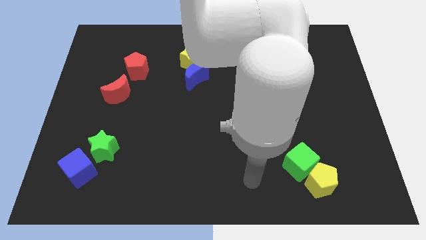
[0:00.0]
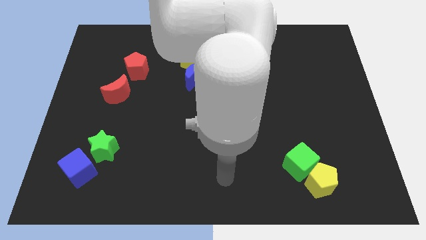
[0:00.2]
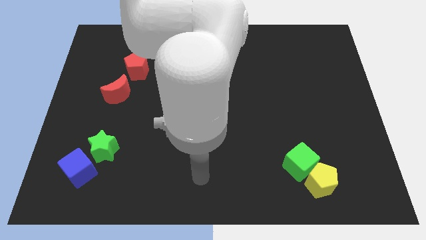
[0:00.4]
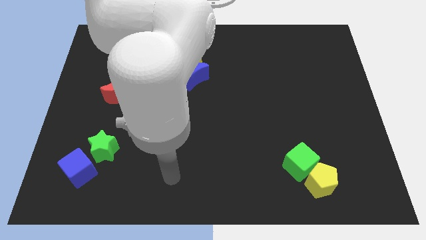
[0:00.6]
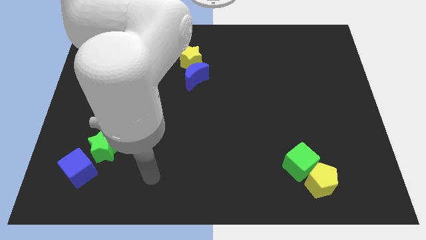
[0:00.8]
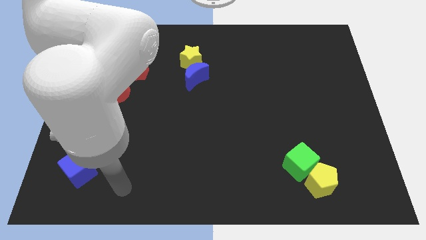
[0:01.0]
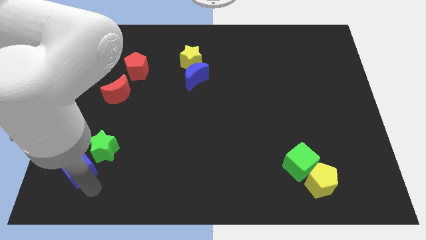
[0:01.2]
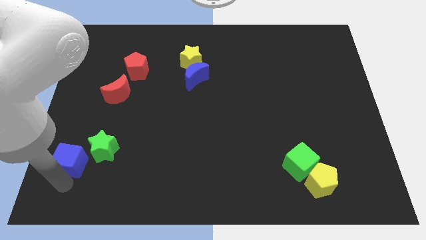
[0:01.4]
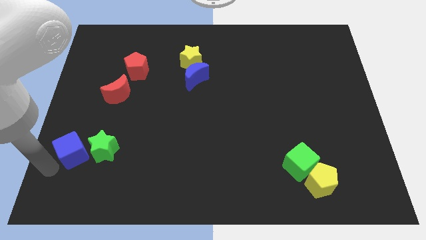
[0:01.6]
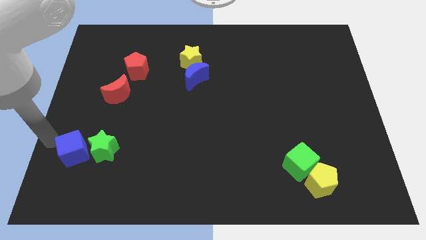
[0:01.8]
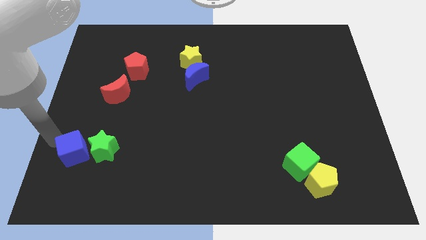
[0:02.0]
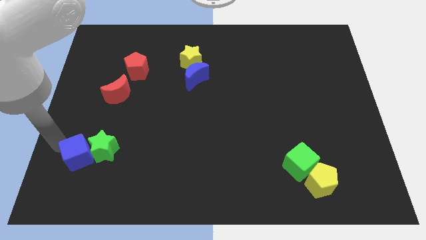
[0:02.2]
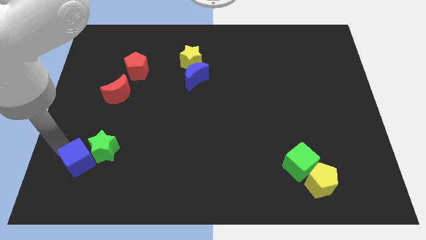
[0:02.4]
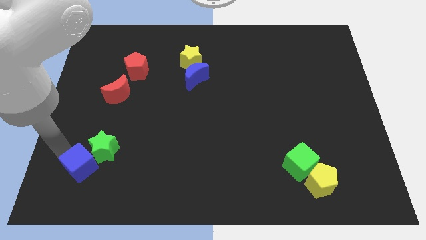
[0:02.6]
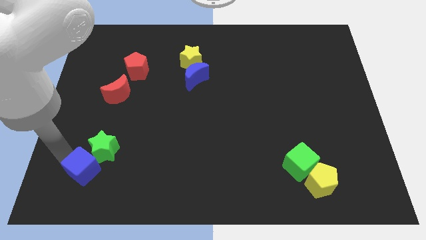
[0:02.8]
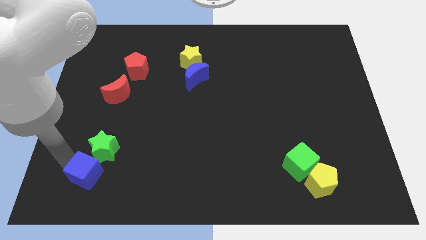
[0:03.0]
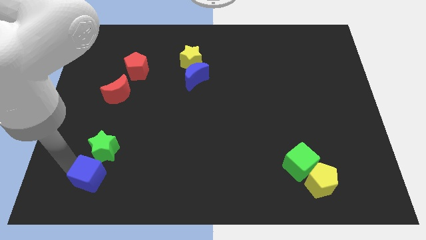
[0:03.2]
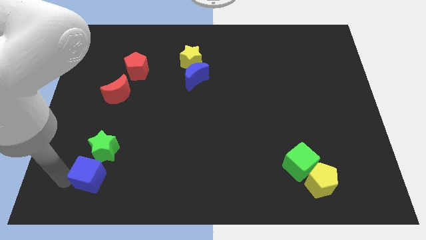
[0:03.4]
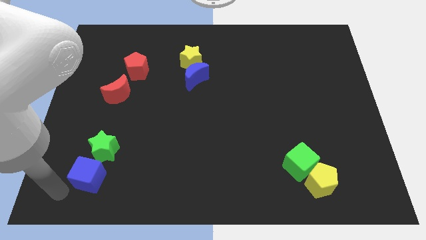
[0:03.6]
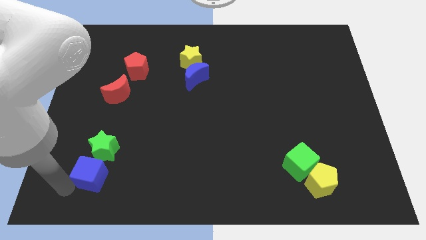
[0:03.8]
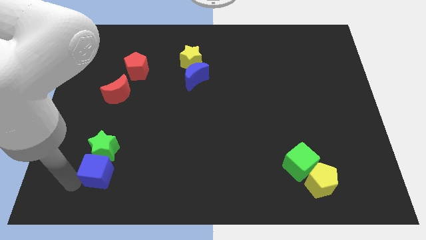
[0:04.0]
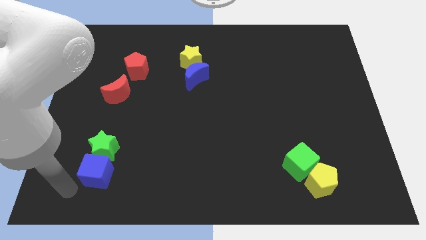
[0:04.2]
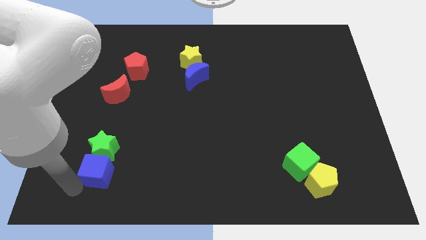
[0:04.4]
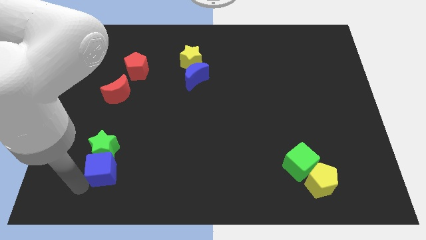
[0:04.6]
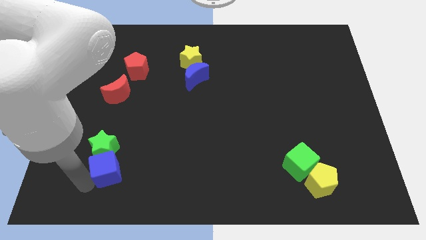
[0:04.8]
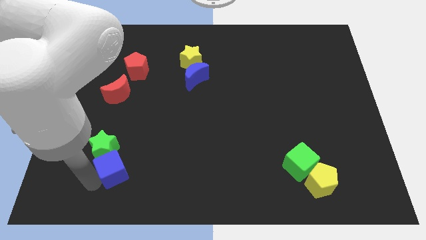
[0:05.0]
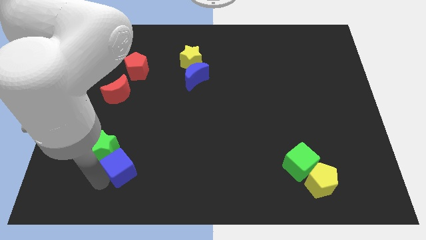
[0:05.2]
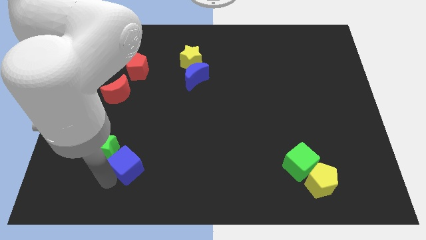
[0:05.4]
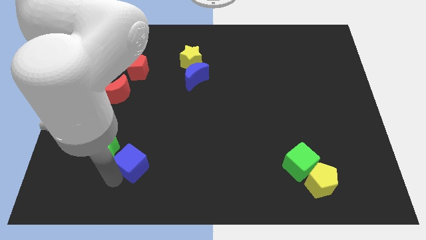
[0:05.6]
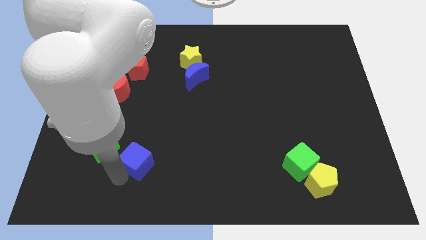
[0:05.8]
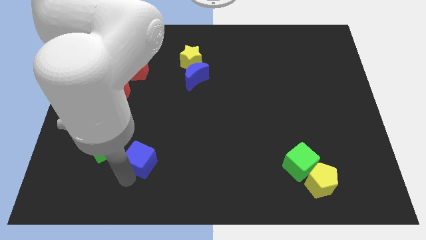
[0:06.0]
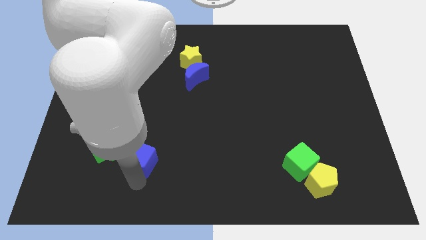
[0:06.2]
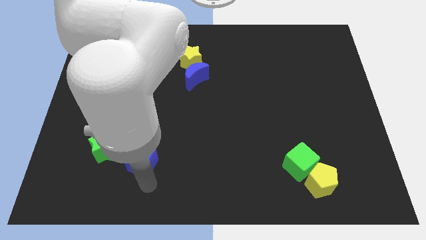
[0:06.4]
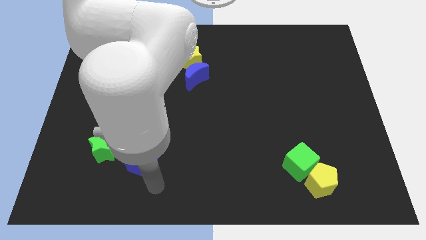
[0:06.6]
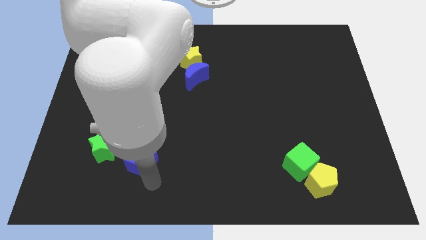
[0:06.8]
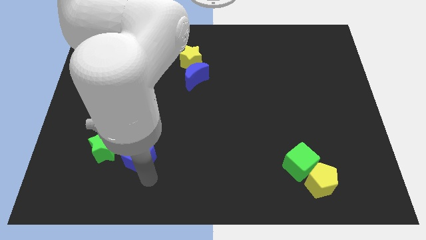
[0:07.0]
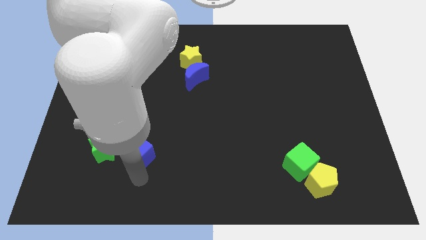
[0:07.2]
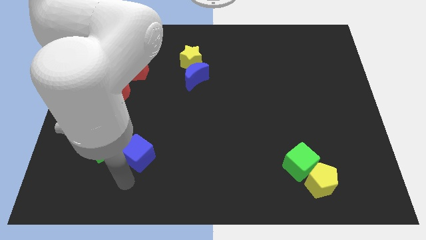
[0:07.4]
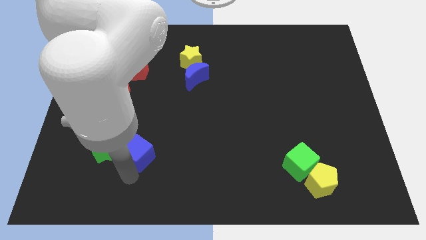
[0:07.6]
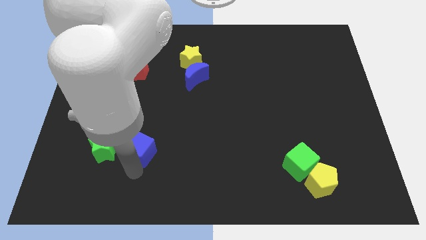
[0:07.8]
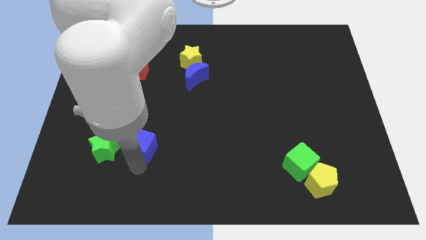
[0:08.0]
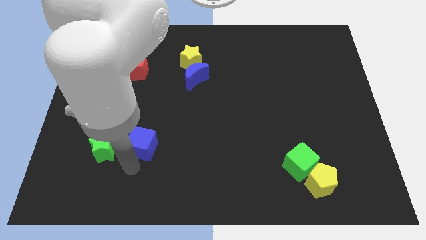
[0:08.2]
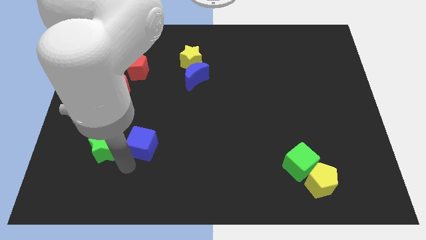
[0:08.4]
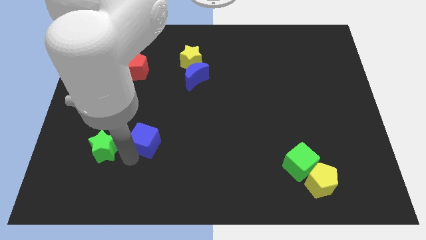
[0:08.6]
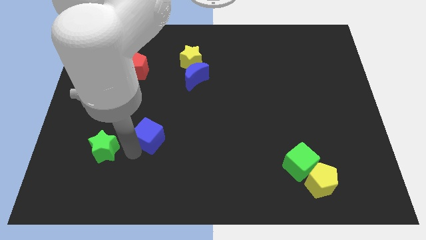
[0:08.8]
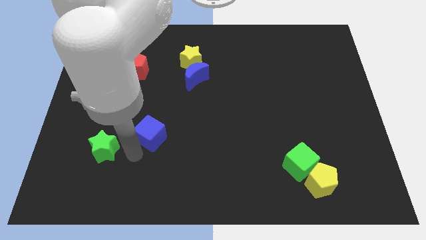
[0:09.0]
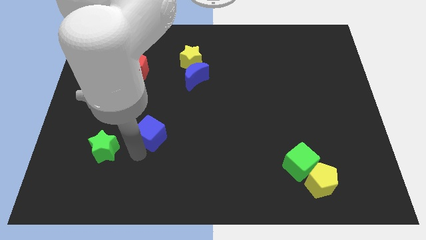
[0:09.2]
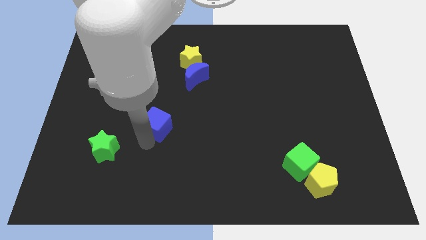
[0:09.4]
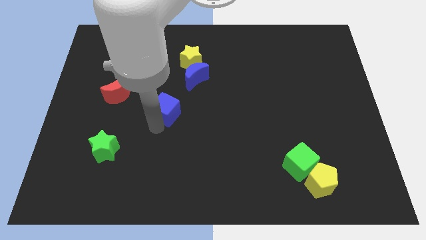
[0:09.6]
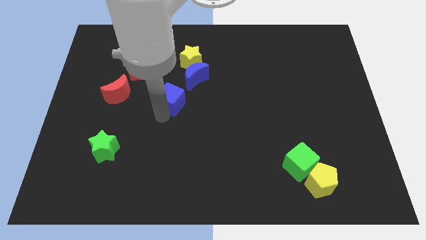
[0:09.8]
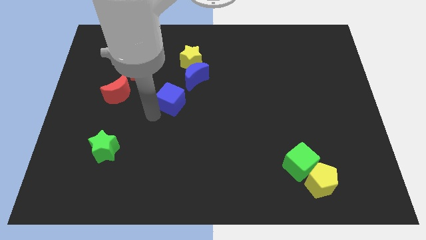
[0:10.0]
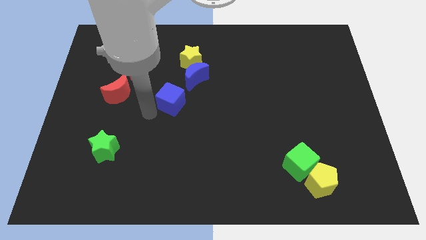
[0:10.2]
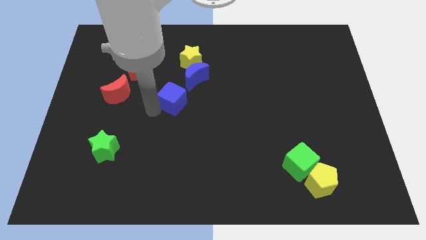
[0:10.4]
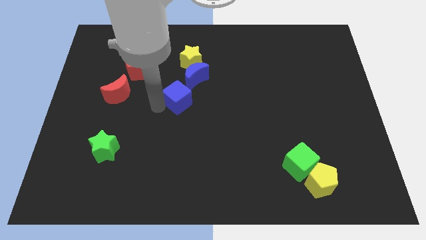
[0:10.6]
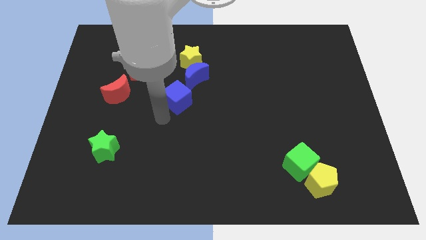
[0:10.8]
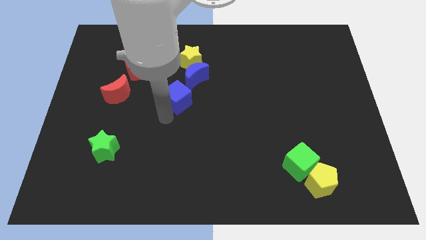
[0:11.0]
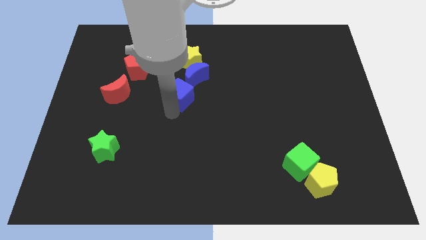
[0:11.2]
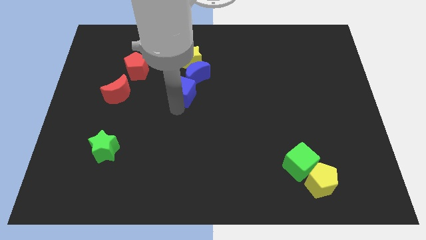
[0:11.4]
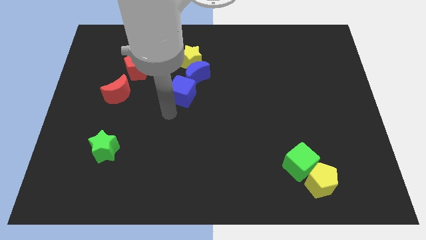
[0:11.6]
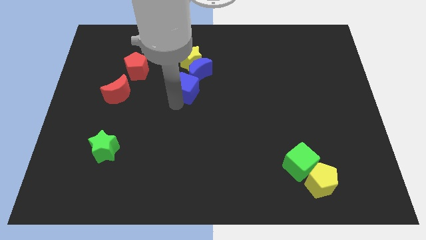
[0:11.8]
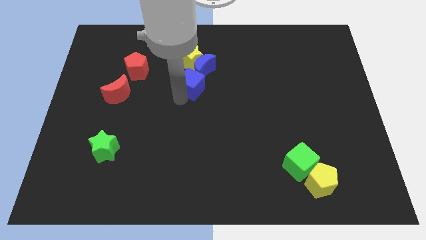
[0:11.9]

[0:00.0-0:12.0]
push the blue cube to the blue moon
